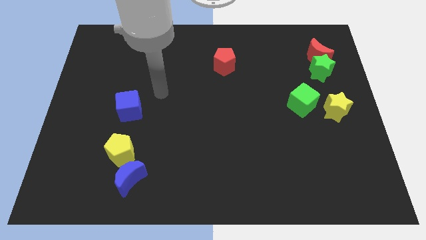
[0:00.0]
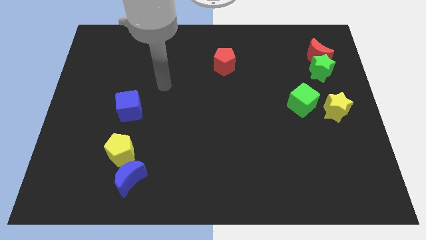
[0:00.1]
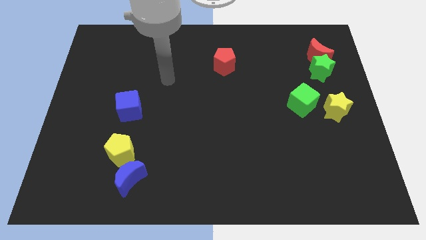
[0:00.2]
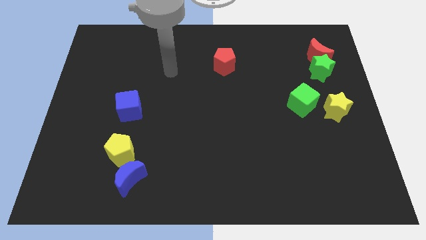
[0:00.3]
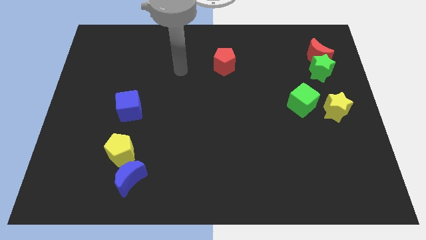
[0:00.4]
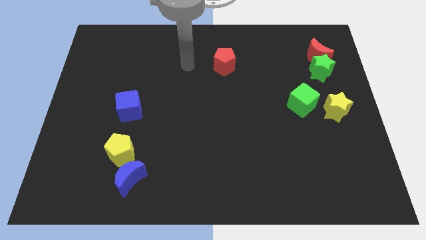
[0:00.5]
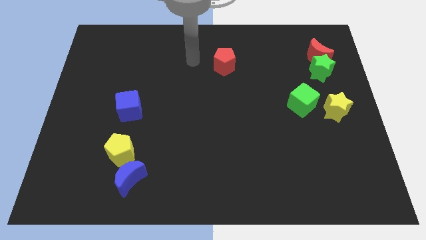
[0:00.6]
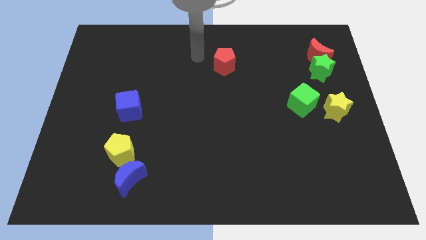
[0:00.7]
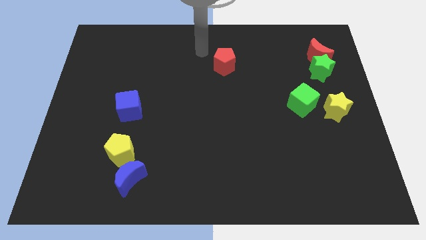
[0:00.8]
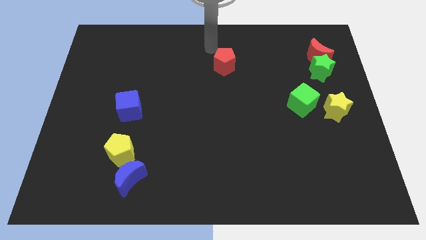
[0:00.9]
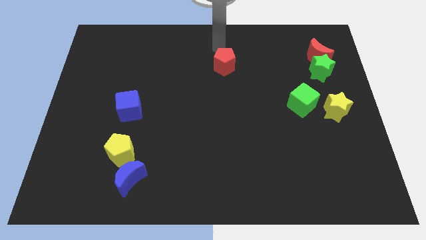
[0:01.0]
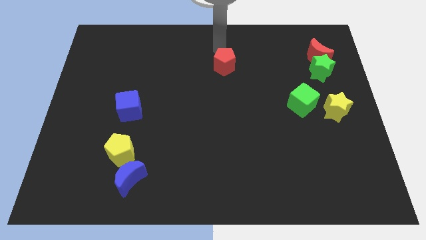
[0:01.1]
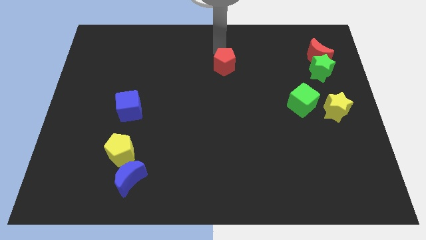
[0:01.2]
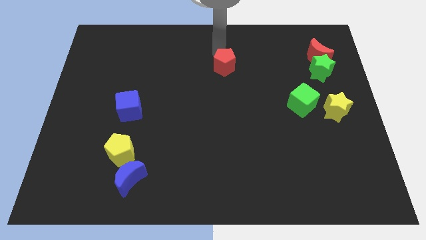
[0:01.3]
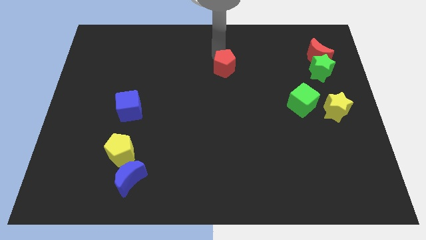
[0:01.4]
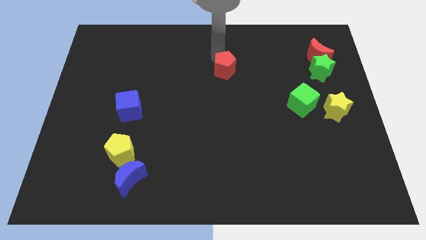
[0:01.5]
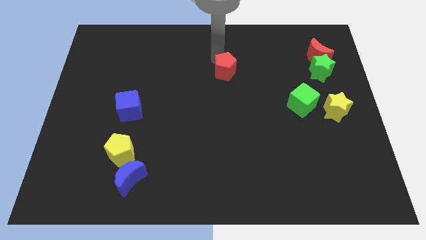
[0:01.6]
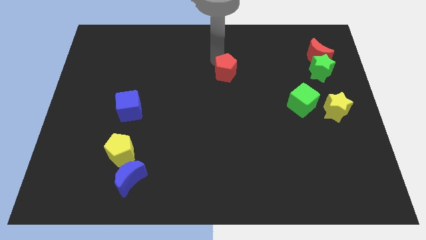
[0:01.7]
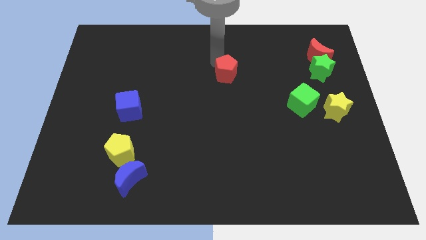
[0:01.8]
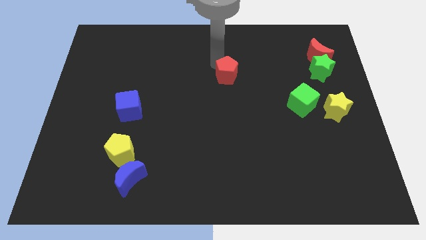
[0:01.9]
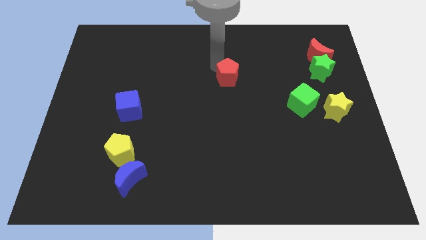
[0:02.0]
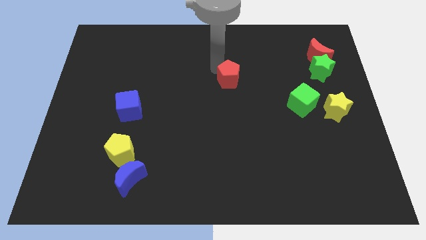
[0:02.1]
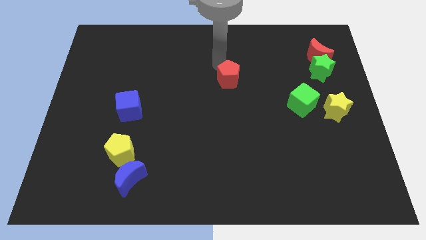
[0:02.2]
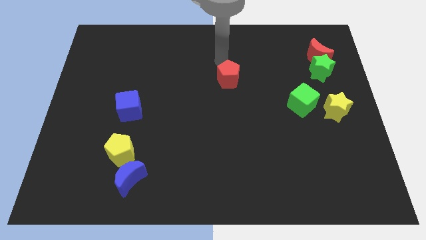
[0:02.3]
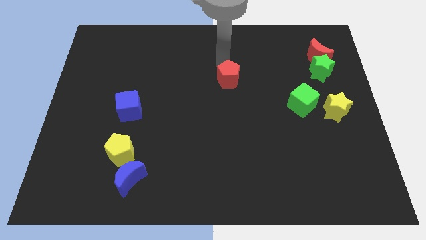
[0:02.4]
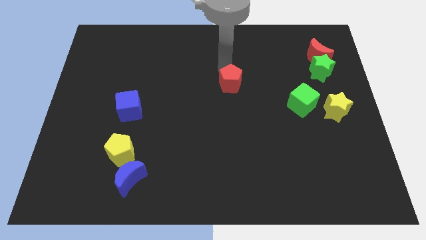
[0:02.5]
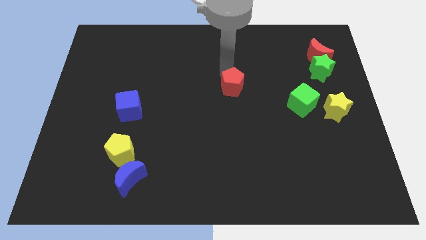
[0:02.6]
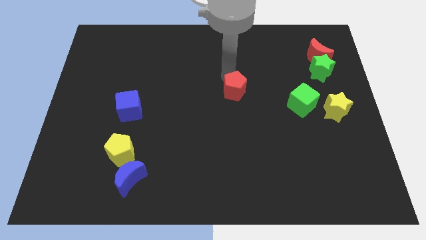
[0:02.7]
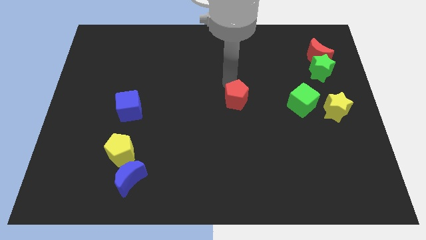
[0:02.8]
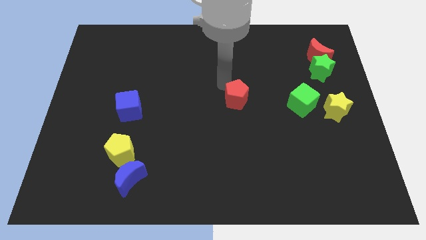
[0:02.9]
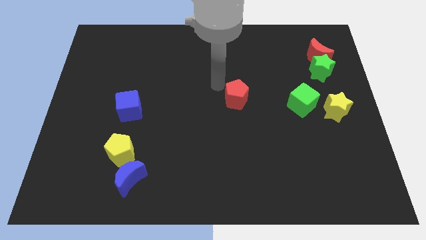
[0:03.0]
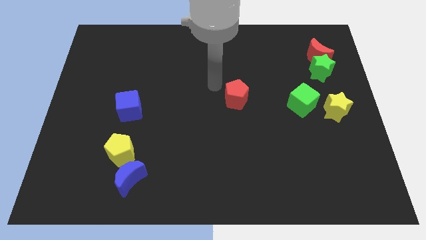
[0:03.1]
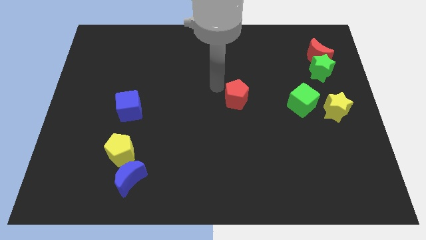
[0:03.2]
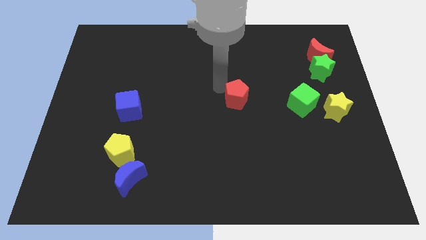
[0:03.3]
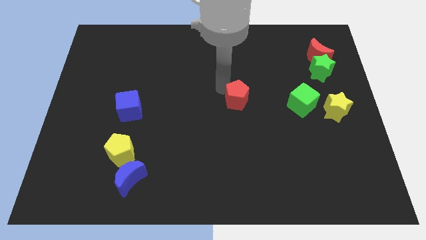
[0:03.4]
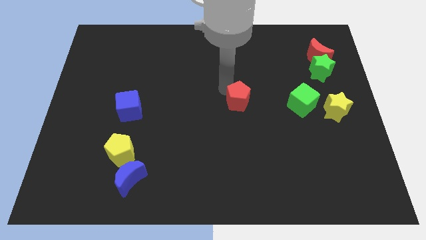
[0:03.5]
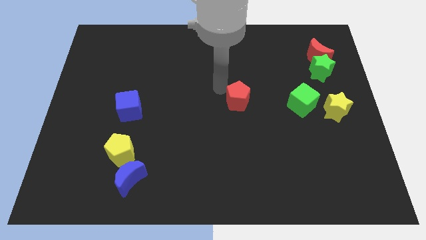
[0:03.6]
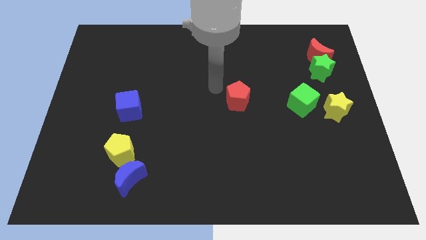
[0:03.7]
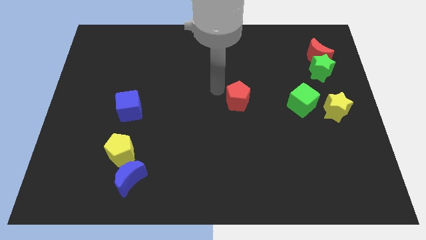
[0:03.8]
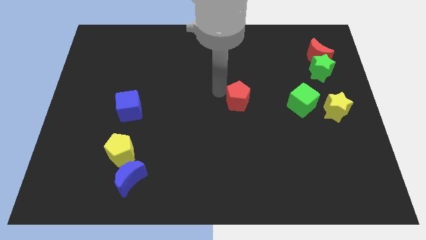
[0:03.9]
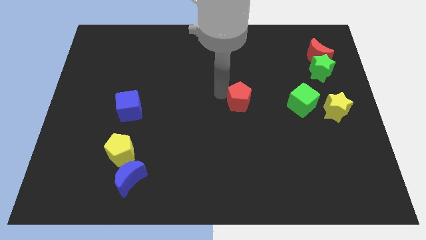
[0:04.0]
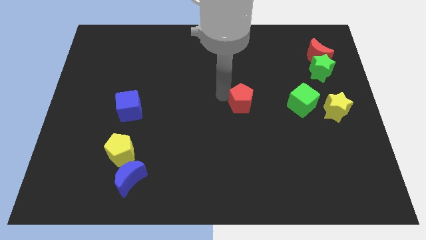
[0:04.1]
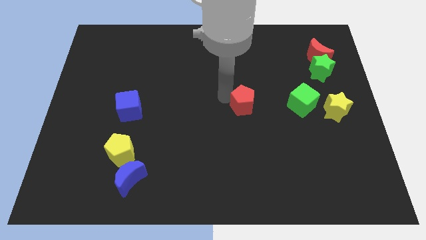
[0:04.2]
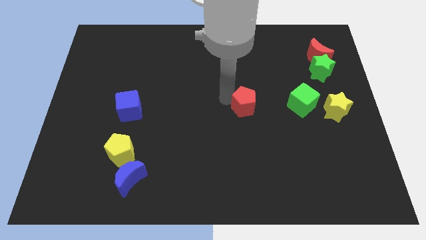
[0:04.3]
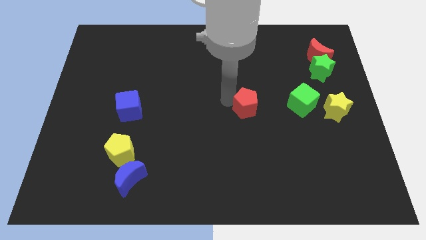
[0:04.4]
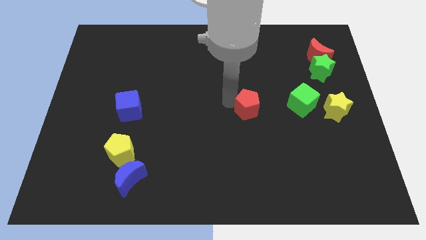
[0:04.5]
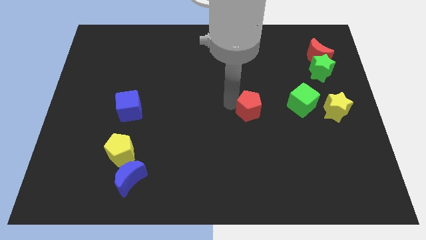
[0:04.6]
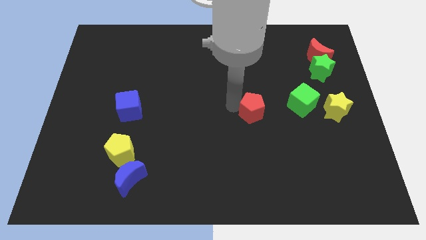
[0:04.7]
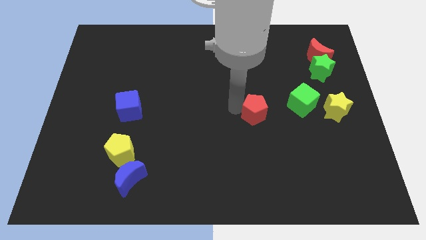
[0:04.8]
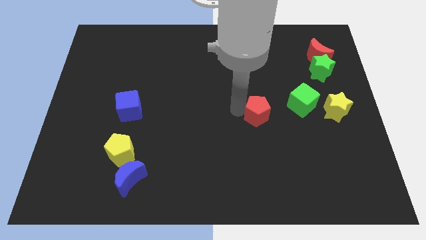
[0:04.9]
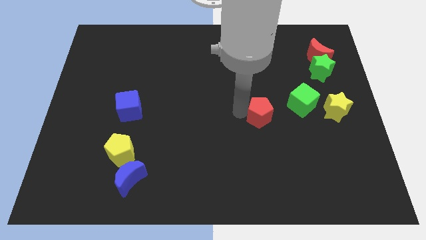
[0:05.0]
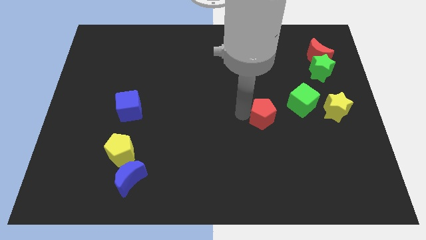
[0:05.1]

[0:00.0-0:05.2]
slide the red pentagon to the bottom left side of the green cube

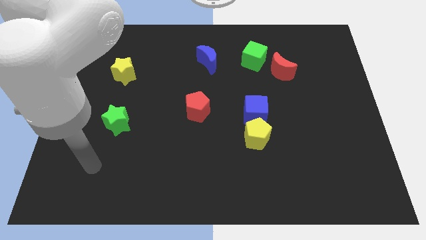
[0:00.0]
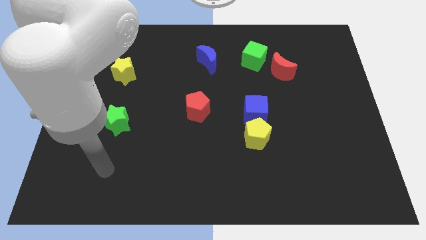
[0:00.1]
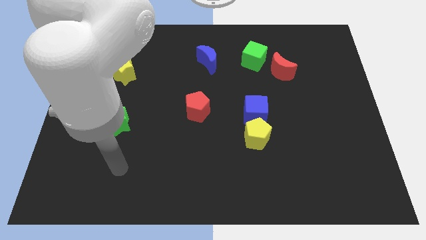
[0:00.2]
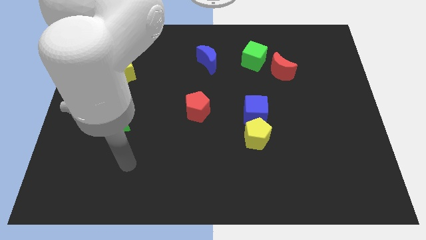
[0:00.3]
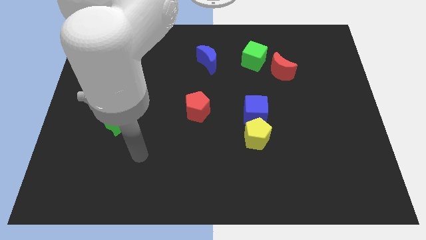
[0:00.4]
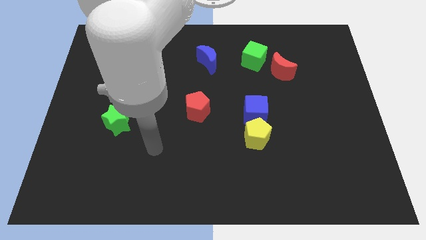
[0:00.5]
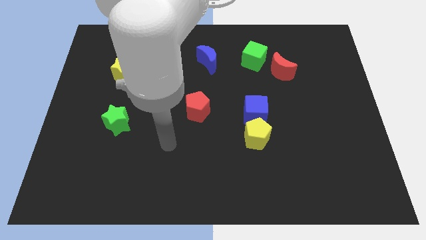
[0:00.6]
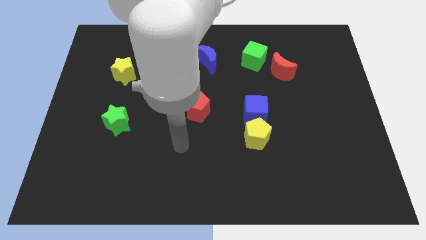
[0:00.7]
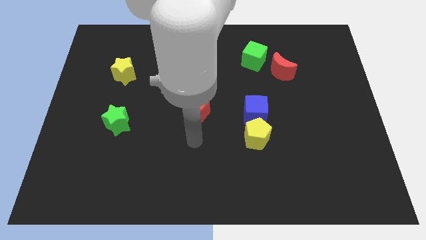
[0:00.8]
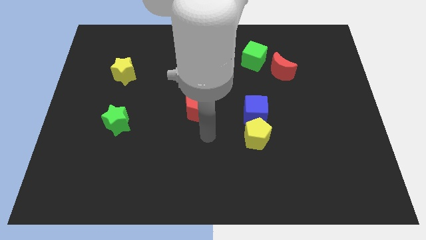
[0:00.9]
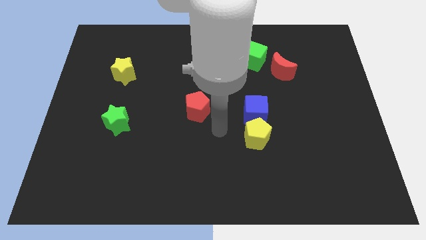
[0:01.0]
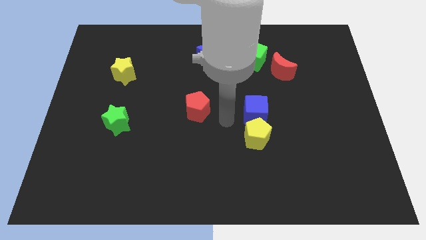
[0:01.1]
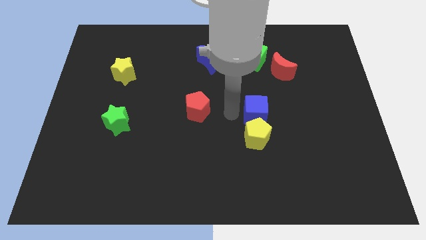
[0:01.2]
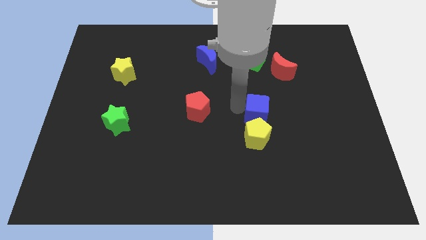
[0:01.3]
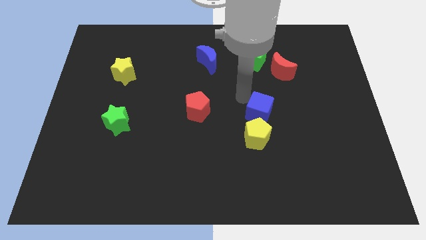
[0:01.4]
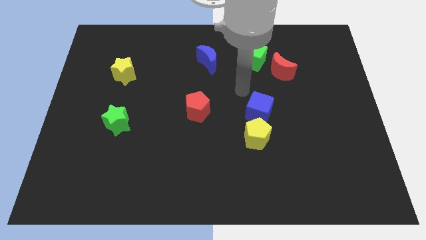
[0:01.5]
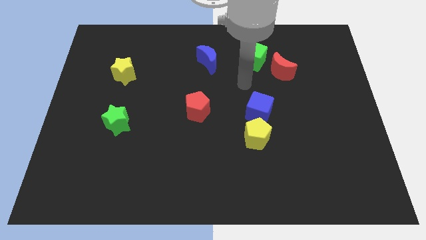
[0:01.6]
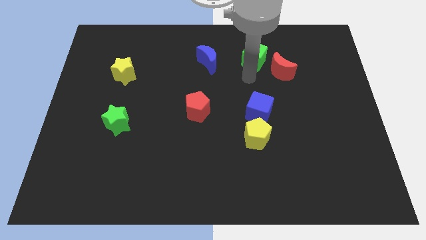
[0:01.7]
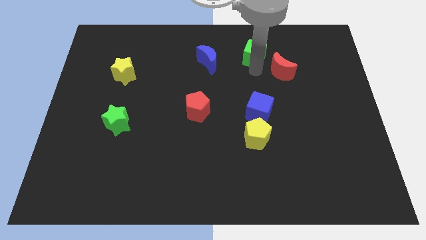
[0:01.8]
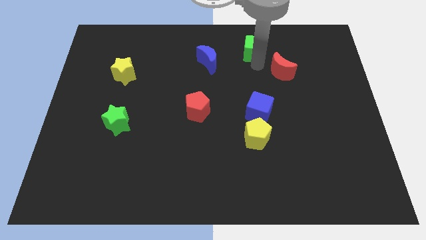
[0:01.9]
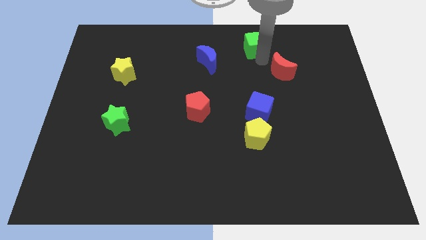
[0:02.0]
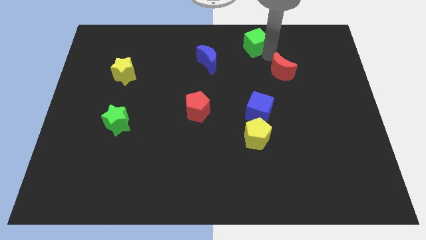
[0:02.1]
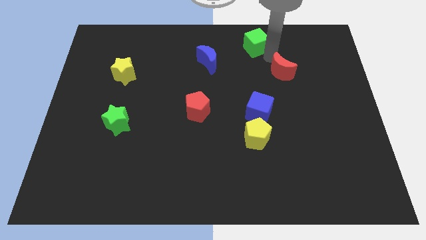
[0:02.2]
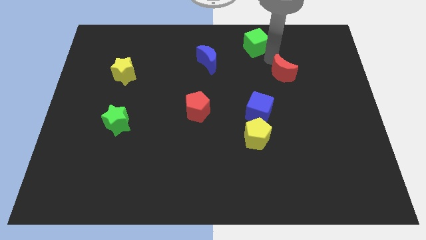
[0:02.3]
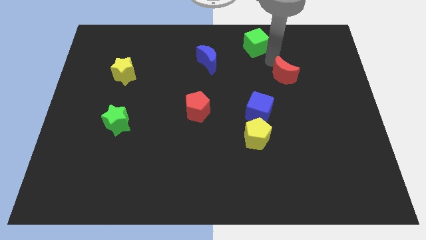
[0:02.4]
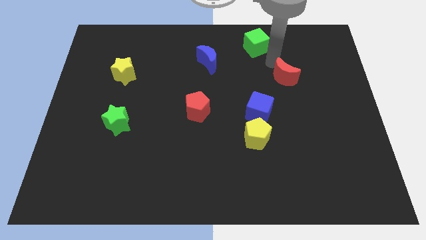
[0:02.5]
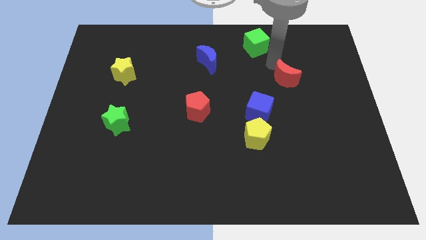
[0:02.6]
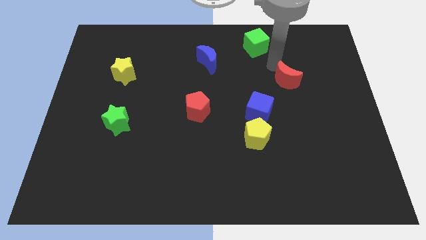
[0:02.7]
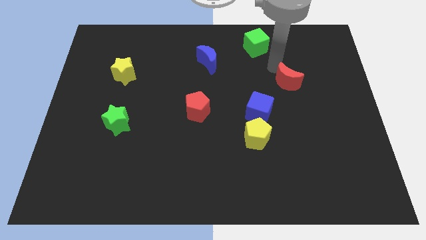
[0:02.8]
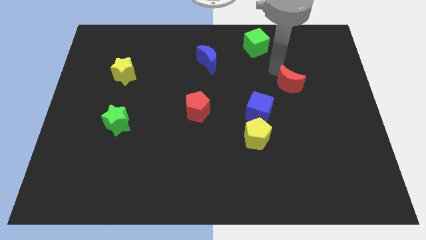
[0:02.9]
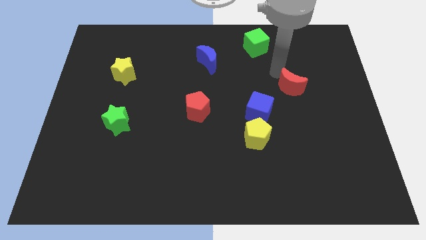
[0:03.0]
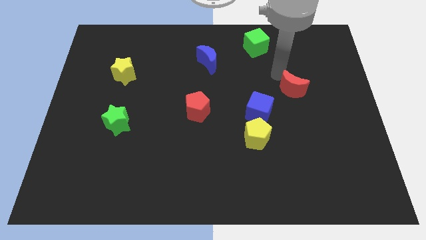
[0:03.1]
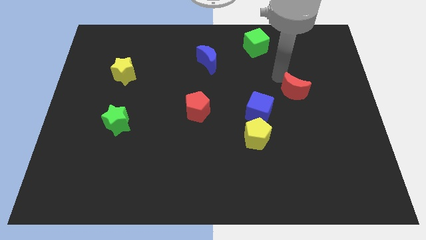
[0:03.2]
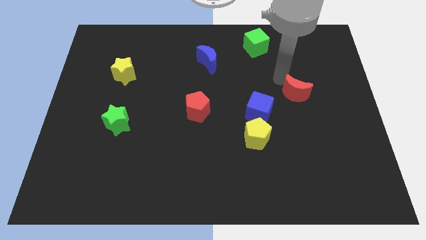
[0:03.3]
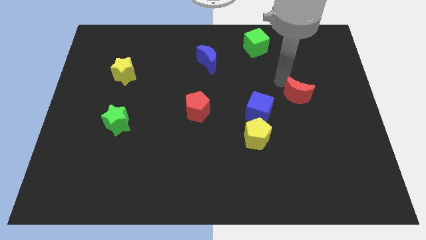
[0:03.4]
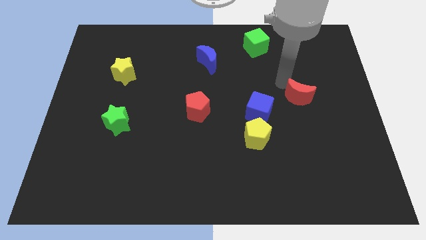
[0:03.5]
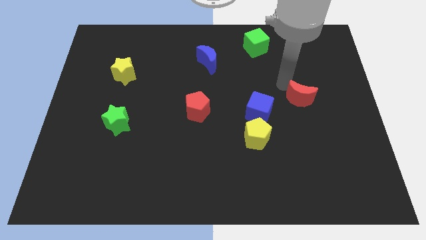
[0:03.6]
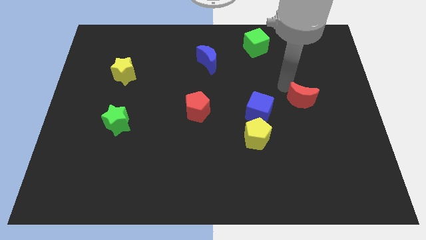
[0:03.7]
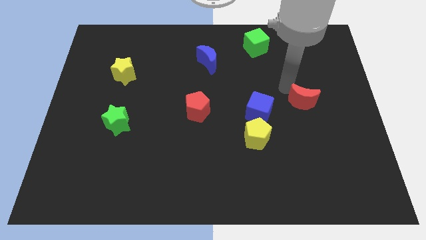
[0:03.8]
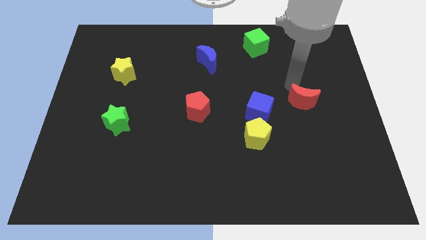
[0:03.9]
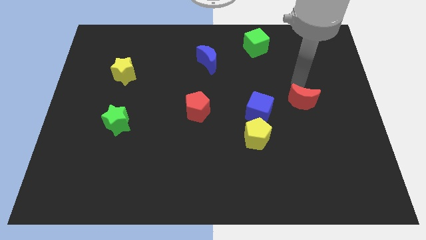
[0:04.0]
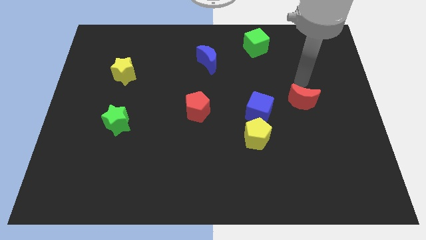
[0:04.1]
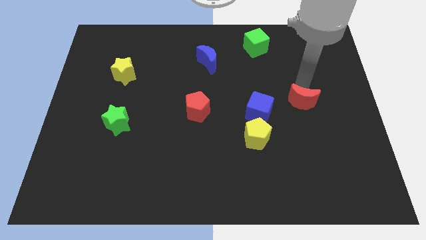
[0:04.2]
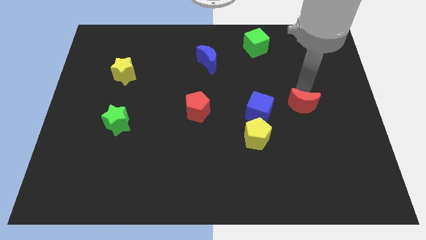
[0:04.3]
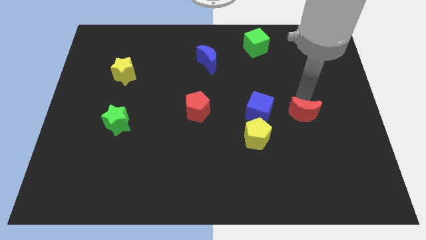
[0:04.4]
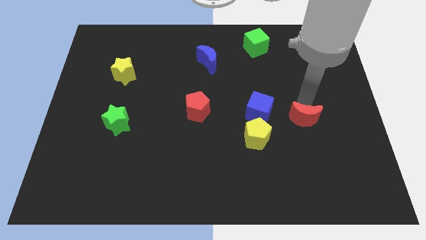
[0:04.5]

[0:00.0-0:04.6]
put the red moon right of the yellow pentagon
